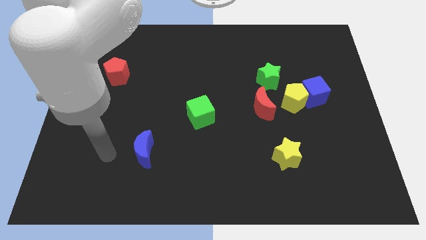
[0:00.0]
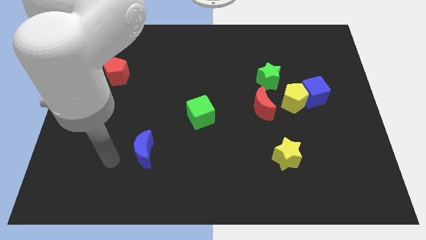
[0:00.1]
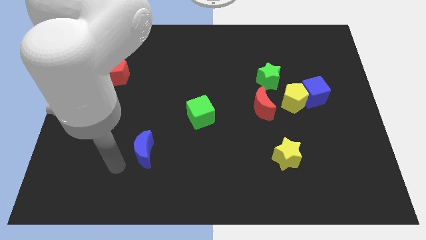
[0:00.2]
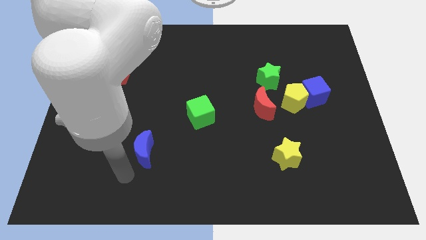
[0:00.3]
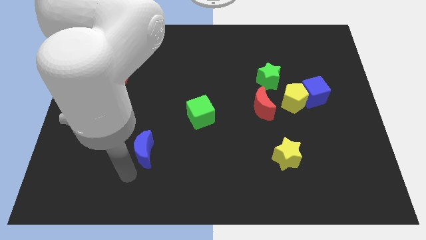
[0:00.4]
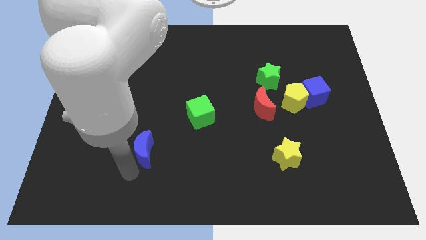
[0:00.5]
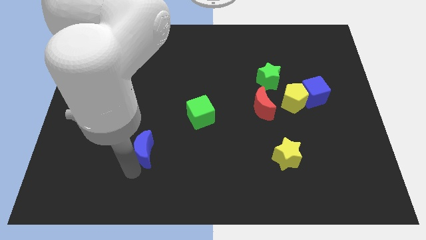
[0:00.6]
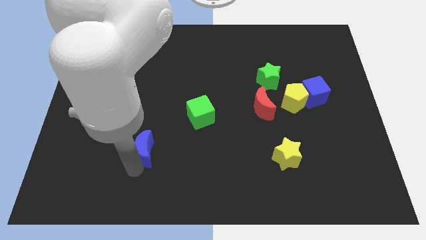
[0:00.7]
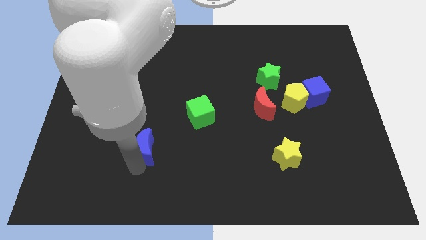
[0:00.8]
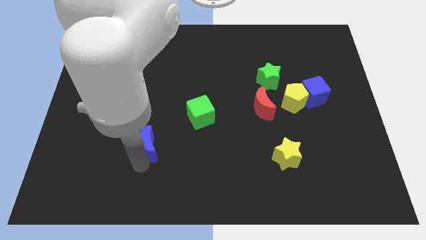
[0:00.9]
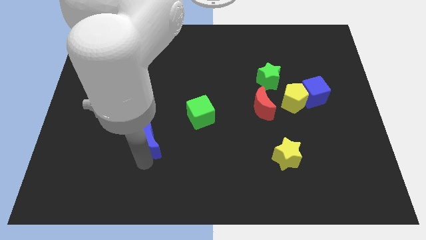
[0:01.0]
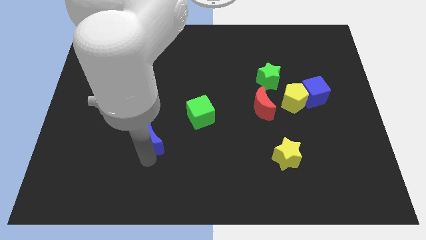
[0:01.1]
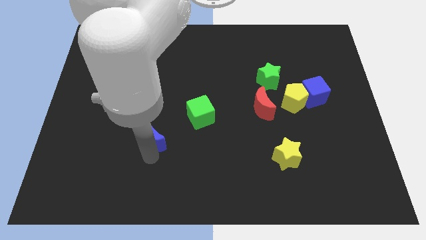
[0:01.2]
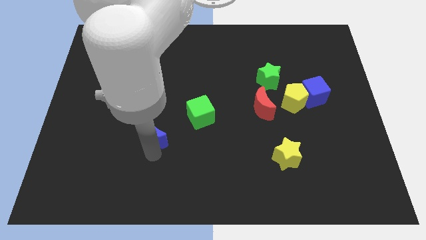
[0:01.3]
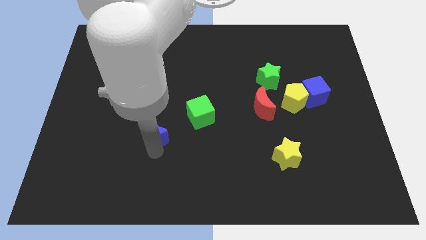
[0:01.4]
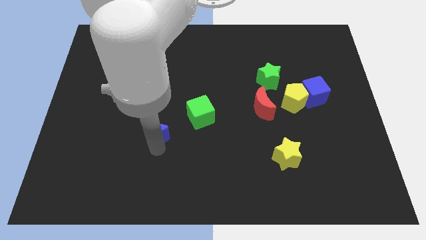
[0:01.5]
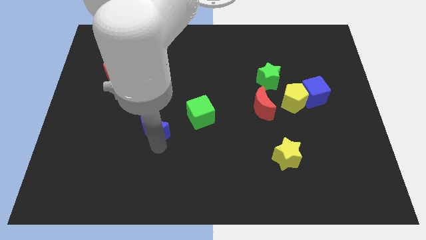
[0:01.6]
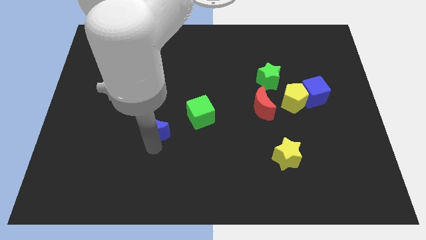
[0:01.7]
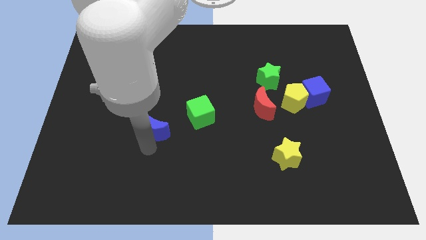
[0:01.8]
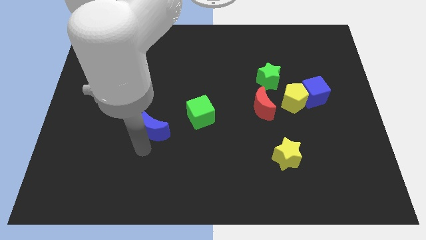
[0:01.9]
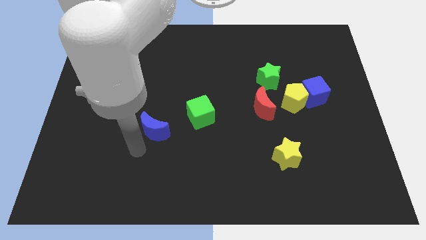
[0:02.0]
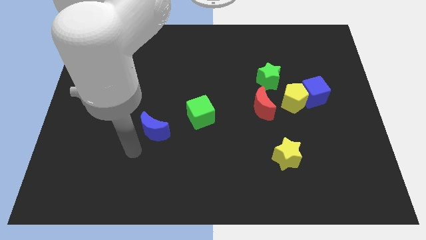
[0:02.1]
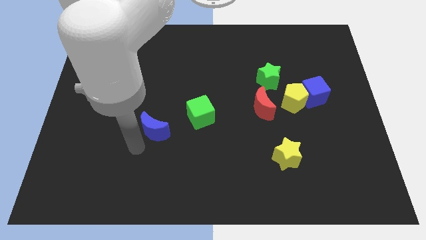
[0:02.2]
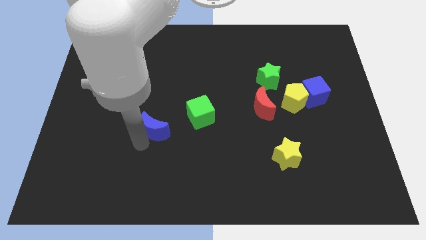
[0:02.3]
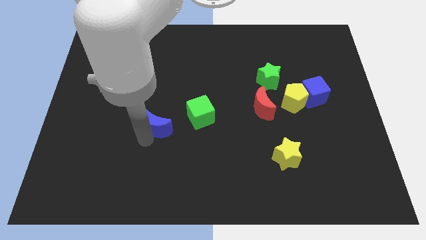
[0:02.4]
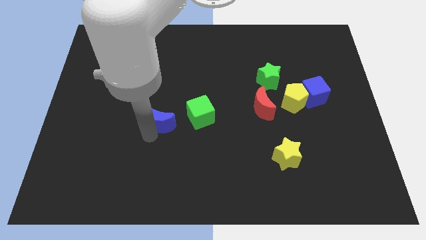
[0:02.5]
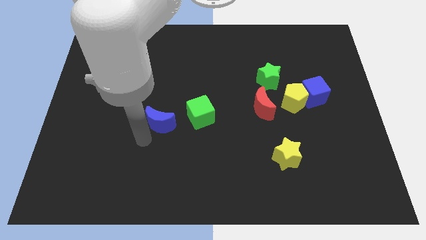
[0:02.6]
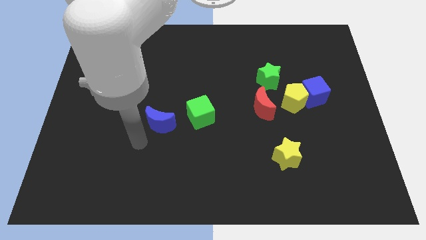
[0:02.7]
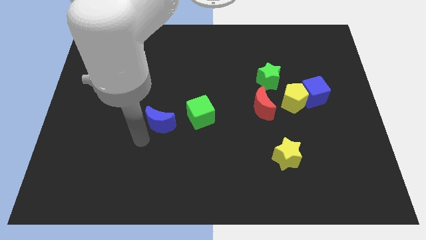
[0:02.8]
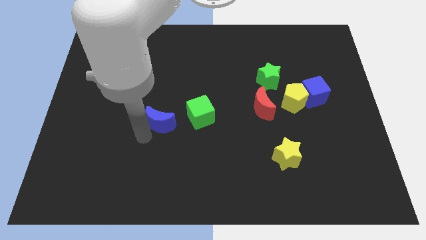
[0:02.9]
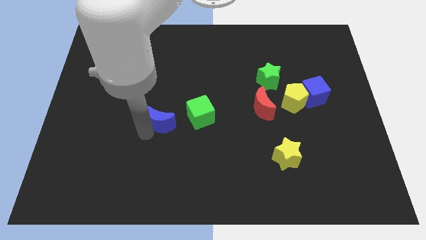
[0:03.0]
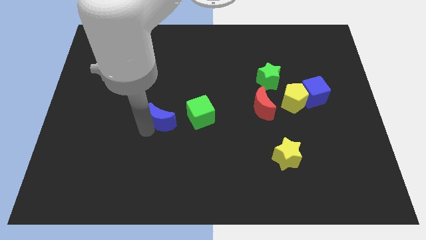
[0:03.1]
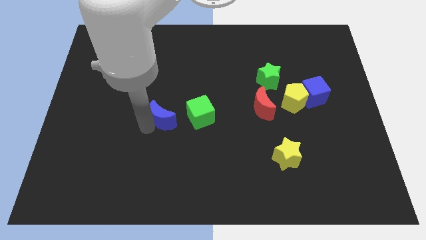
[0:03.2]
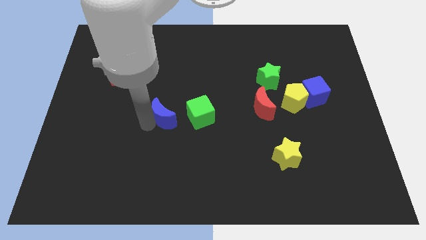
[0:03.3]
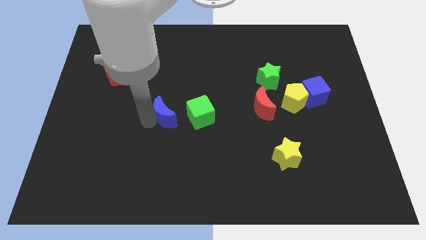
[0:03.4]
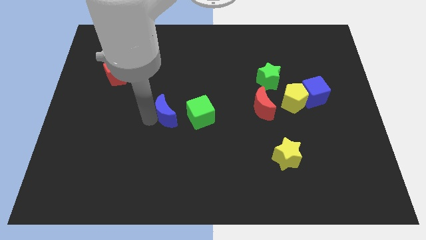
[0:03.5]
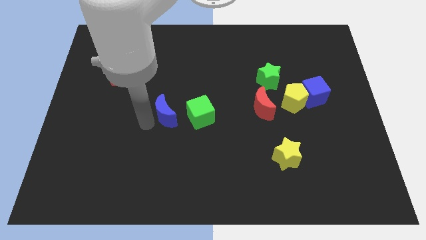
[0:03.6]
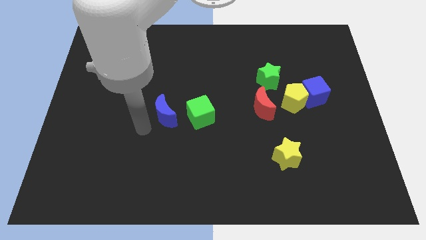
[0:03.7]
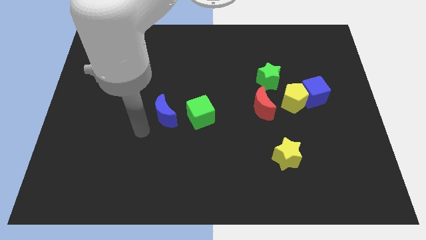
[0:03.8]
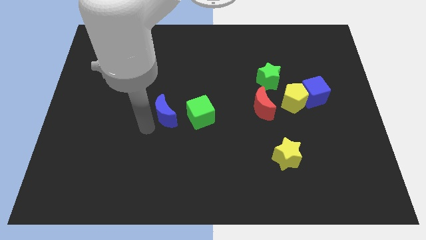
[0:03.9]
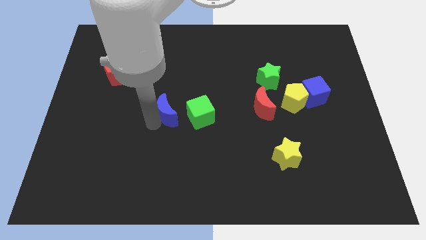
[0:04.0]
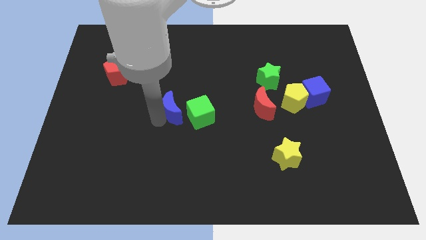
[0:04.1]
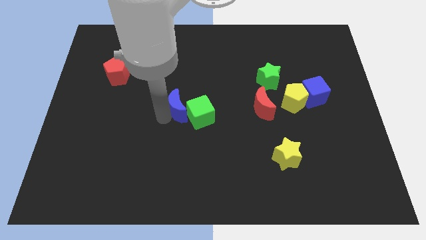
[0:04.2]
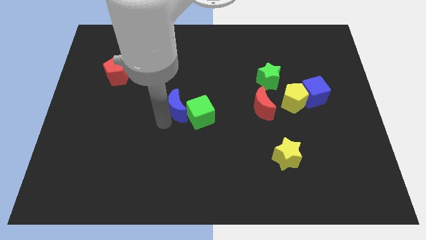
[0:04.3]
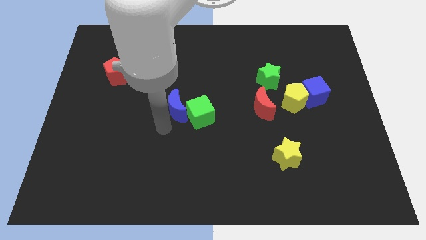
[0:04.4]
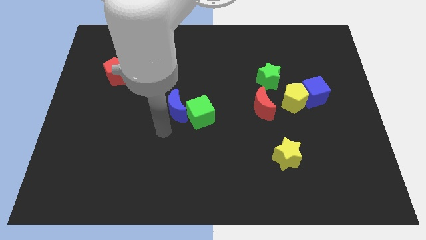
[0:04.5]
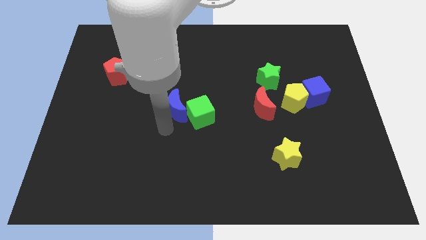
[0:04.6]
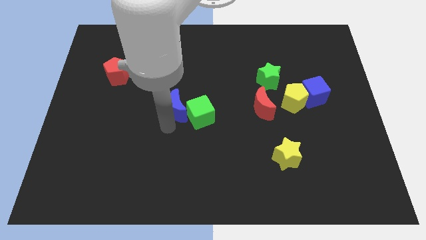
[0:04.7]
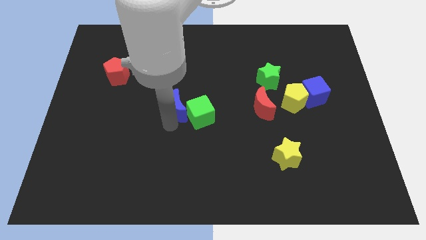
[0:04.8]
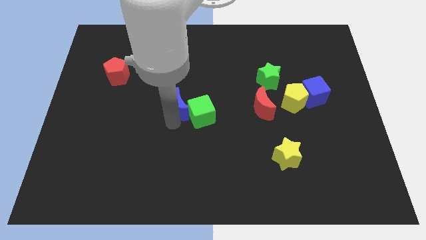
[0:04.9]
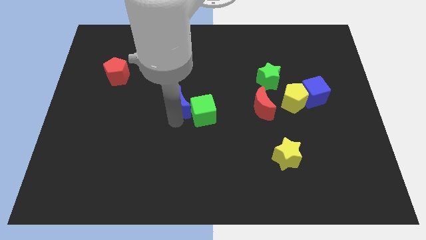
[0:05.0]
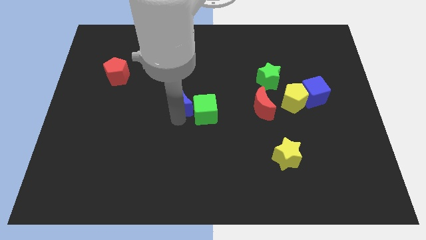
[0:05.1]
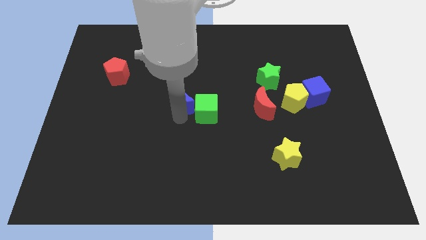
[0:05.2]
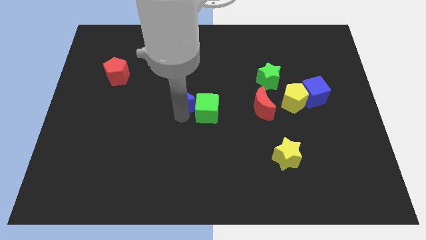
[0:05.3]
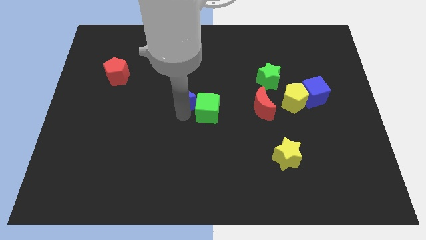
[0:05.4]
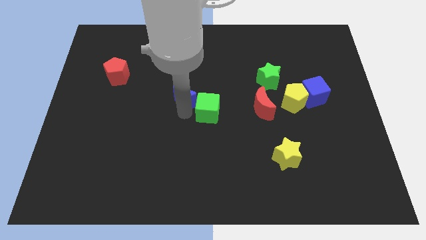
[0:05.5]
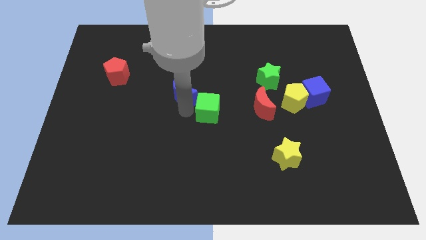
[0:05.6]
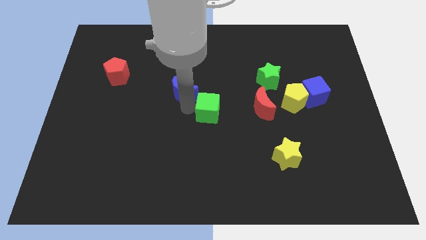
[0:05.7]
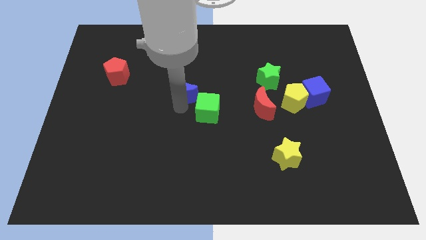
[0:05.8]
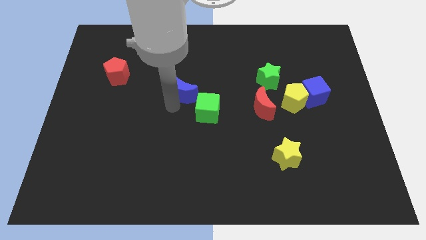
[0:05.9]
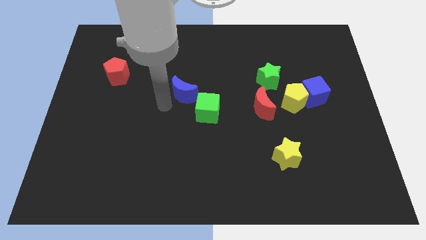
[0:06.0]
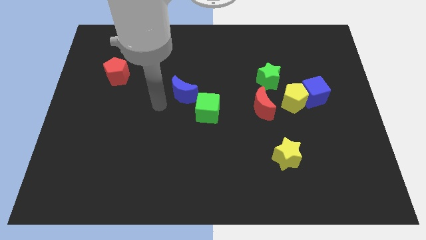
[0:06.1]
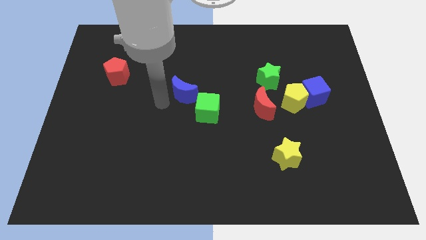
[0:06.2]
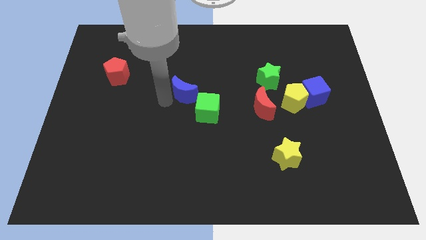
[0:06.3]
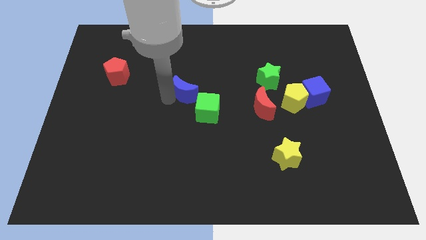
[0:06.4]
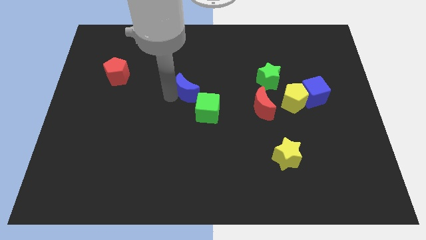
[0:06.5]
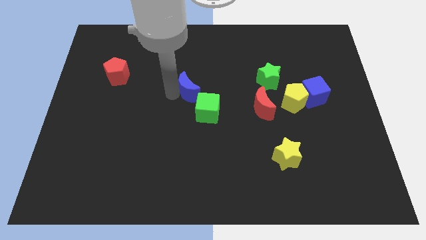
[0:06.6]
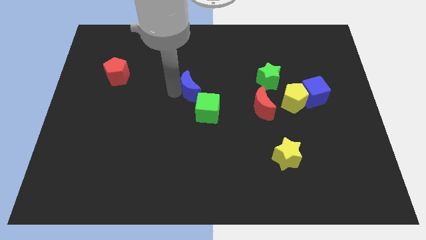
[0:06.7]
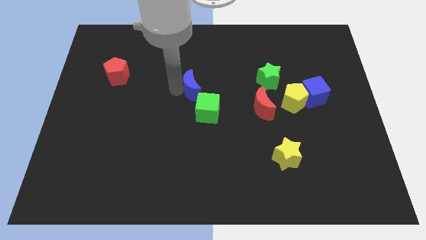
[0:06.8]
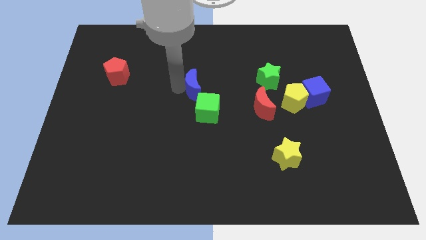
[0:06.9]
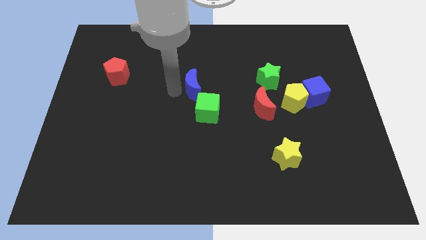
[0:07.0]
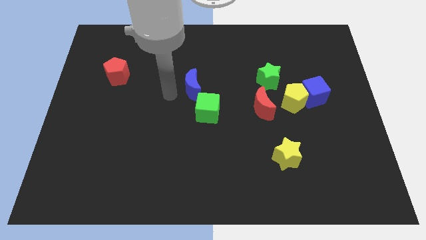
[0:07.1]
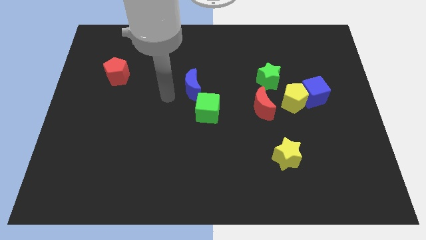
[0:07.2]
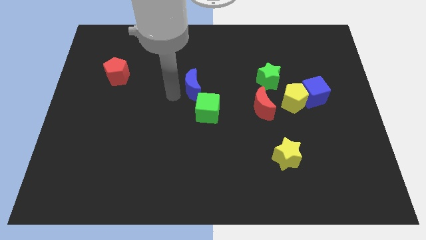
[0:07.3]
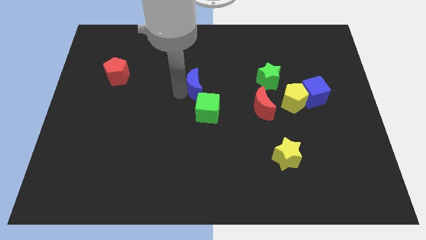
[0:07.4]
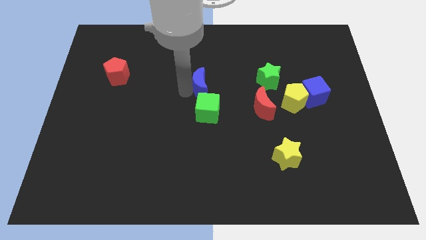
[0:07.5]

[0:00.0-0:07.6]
slide the blue moon up and then right

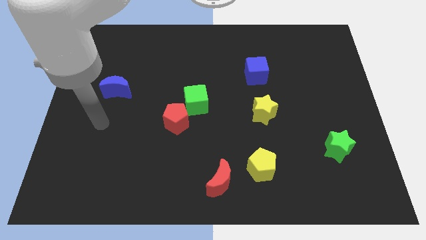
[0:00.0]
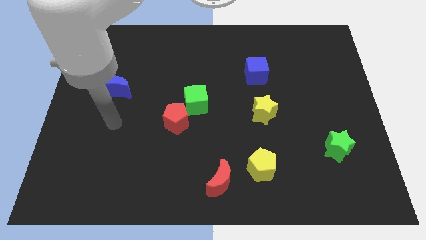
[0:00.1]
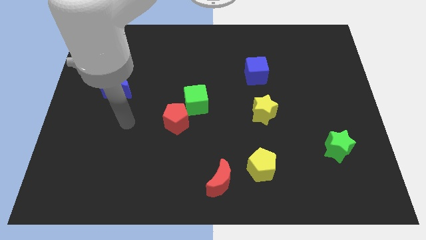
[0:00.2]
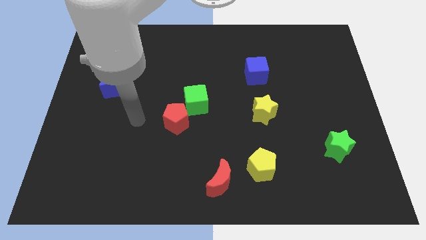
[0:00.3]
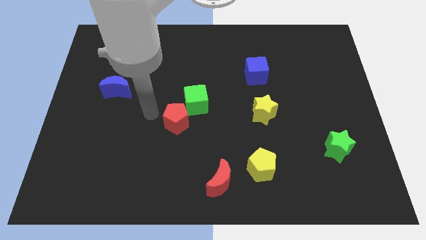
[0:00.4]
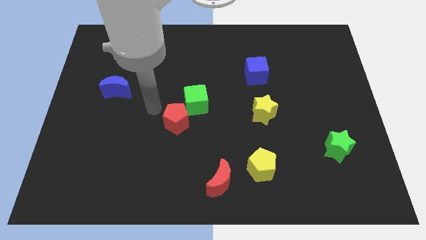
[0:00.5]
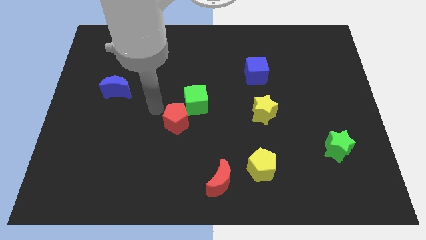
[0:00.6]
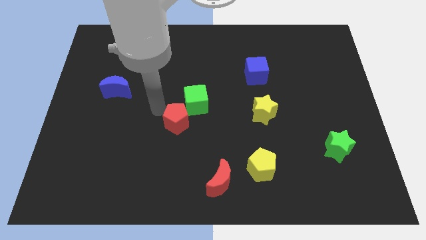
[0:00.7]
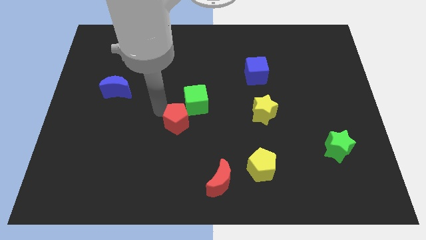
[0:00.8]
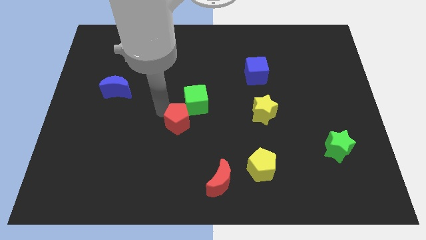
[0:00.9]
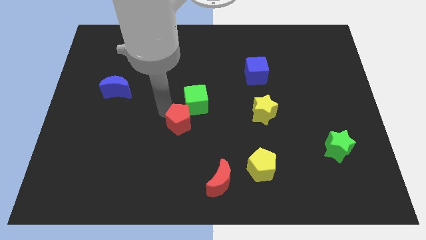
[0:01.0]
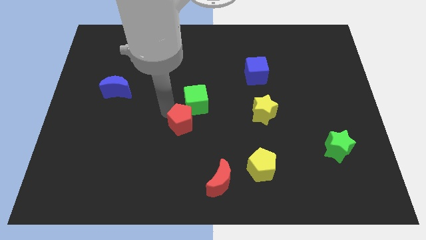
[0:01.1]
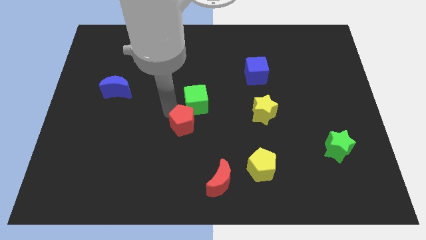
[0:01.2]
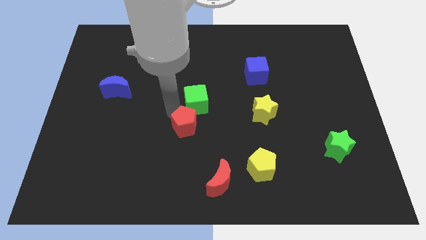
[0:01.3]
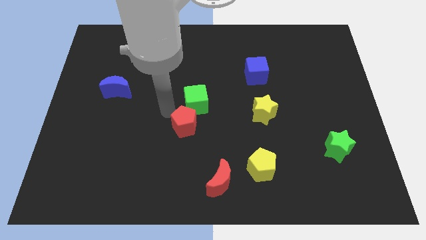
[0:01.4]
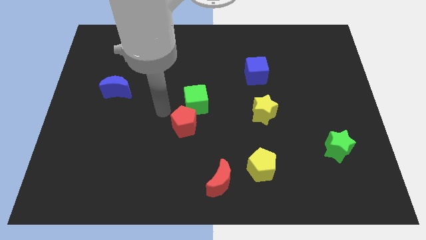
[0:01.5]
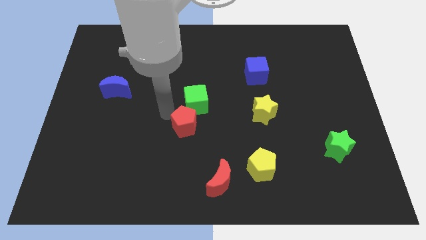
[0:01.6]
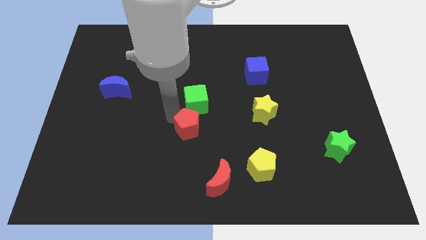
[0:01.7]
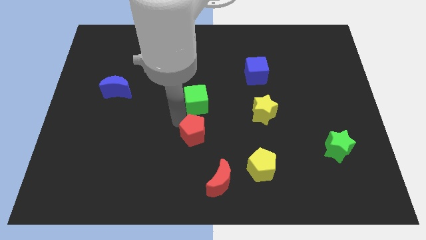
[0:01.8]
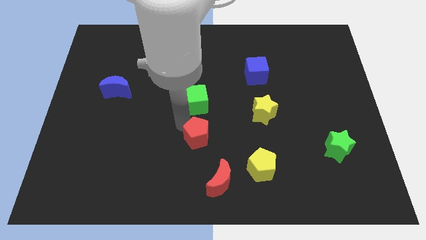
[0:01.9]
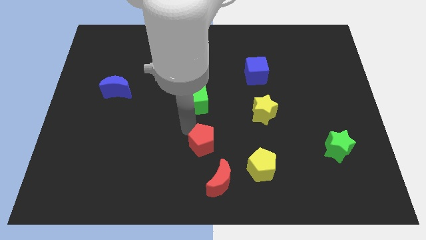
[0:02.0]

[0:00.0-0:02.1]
slide the red pentagon down and right somewhat
